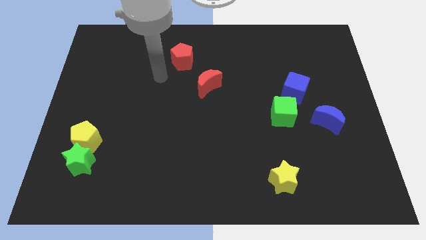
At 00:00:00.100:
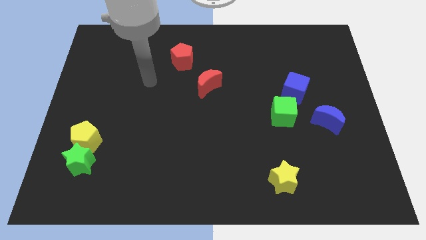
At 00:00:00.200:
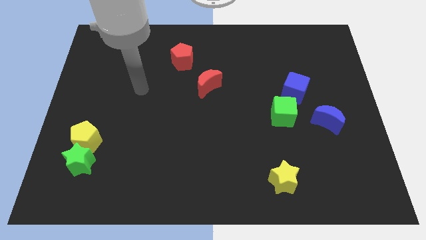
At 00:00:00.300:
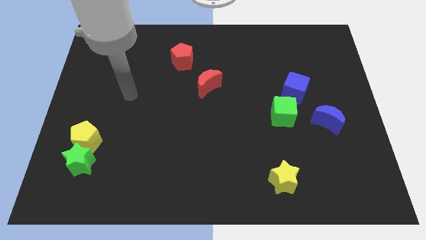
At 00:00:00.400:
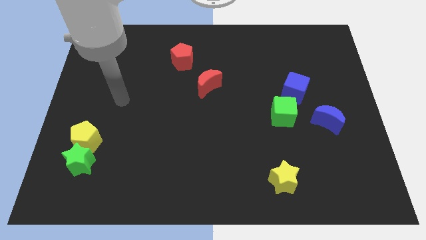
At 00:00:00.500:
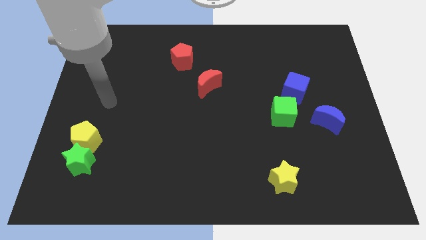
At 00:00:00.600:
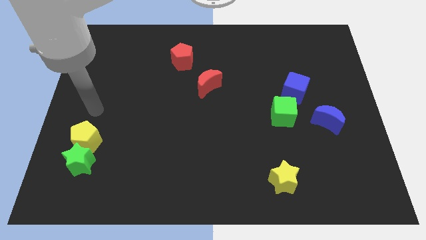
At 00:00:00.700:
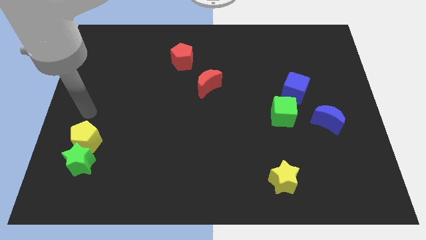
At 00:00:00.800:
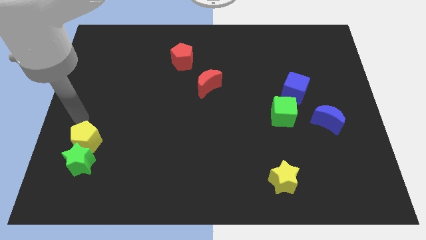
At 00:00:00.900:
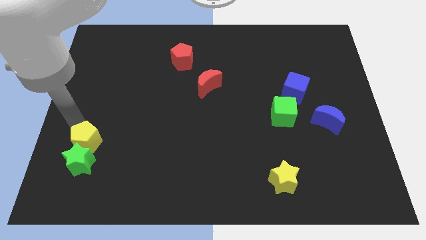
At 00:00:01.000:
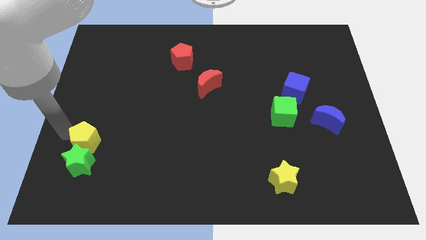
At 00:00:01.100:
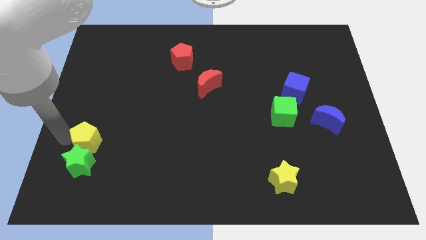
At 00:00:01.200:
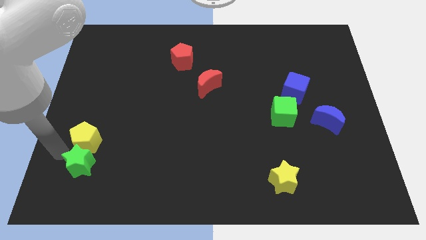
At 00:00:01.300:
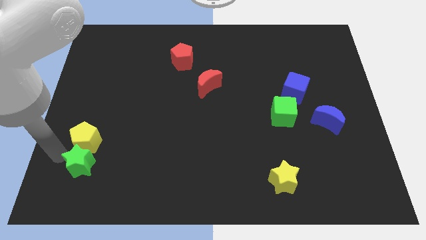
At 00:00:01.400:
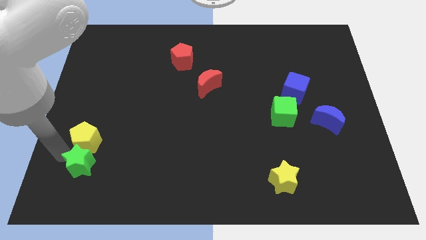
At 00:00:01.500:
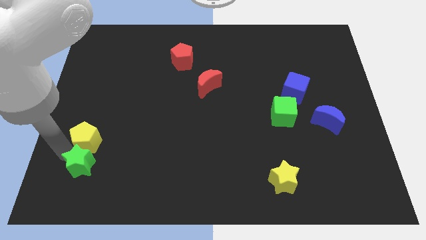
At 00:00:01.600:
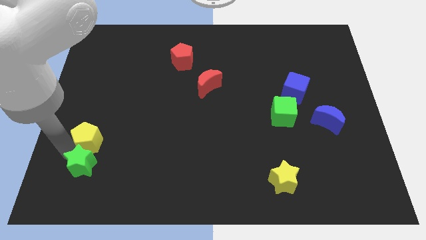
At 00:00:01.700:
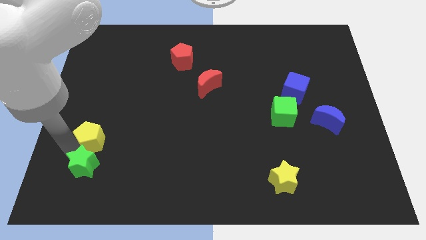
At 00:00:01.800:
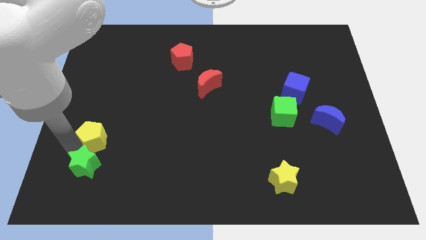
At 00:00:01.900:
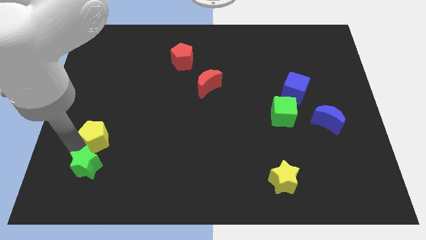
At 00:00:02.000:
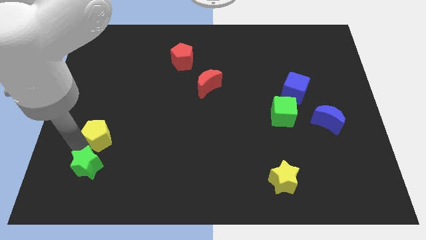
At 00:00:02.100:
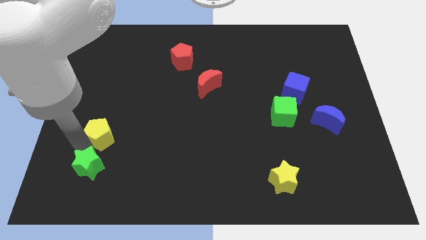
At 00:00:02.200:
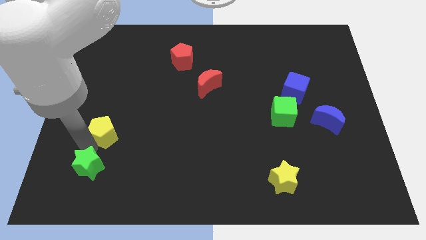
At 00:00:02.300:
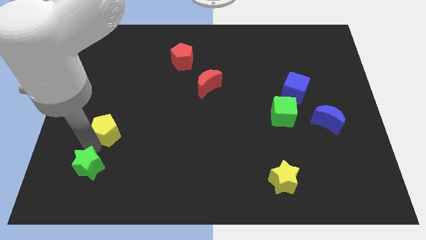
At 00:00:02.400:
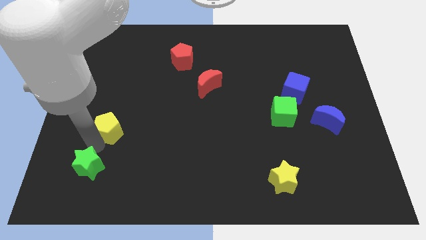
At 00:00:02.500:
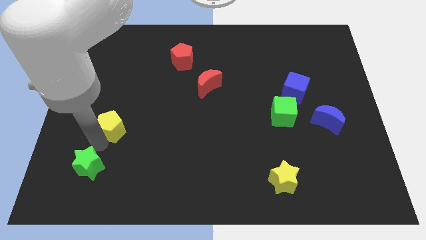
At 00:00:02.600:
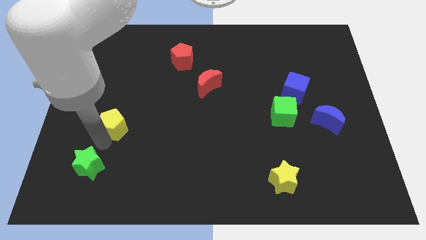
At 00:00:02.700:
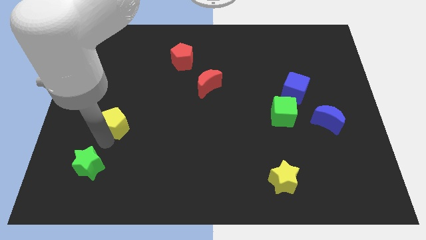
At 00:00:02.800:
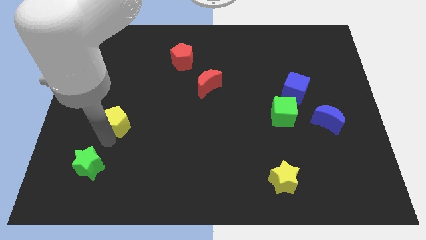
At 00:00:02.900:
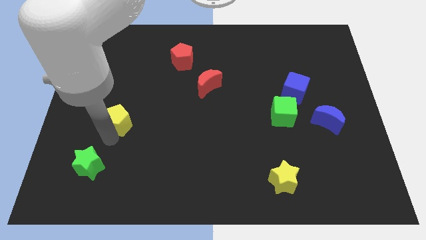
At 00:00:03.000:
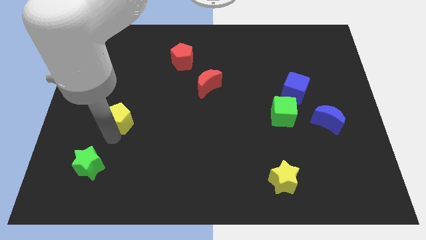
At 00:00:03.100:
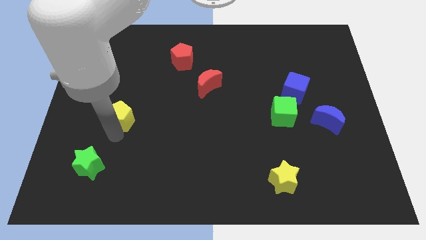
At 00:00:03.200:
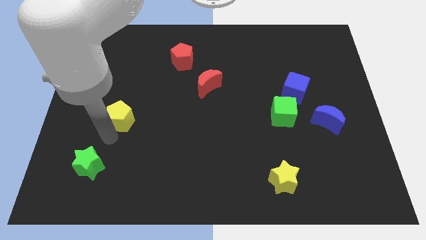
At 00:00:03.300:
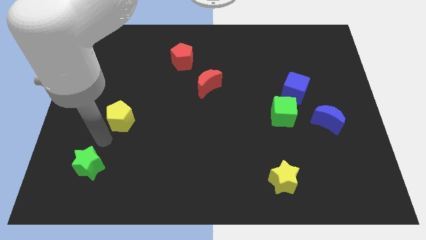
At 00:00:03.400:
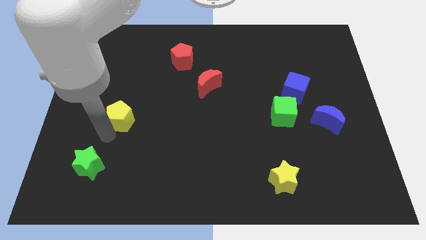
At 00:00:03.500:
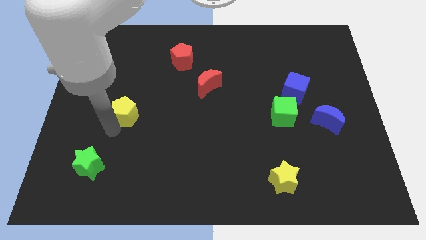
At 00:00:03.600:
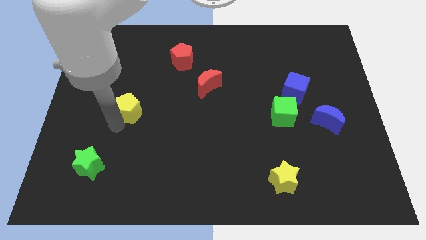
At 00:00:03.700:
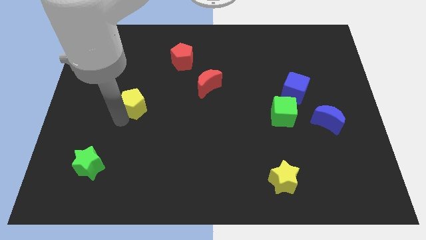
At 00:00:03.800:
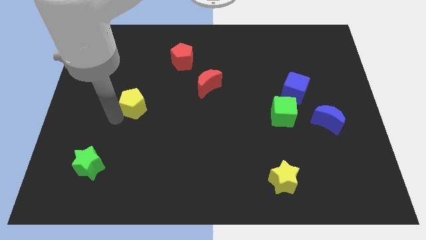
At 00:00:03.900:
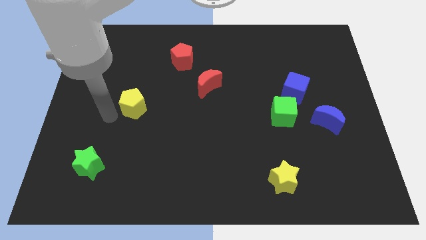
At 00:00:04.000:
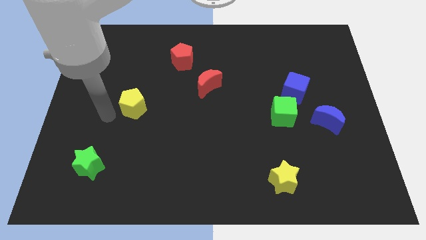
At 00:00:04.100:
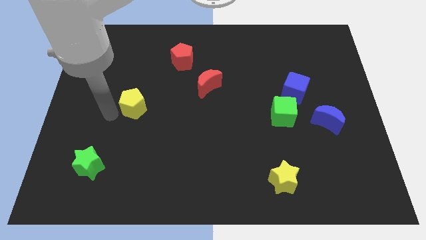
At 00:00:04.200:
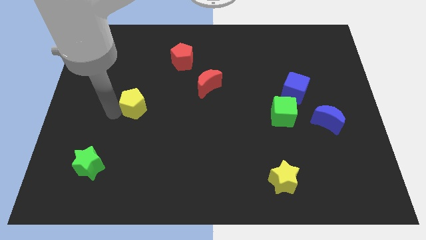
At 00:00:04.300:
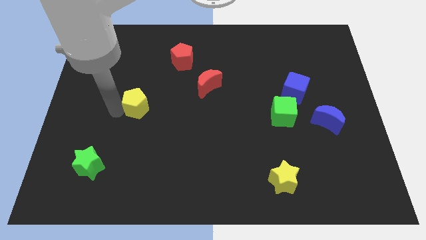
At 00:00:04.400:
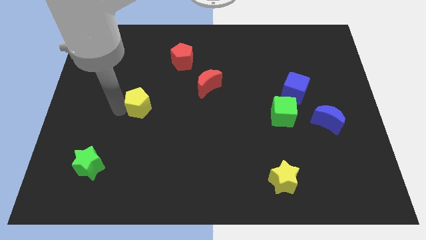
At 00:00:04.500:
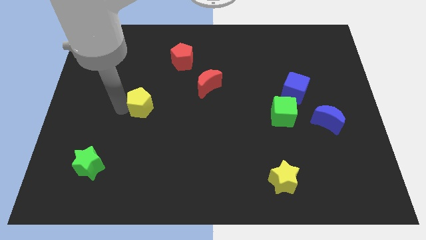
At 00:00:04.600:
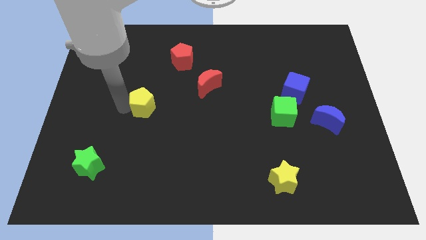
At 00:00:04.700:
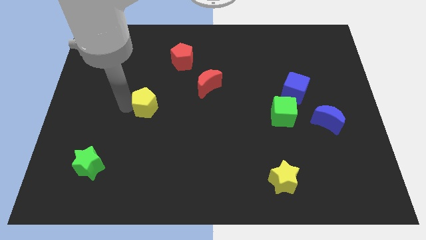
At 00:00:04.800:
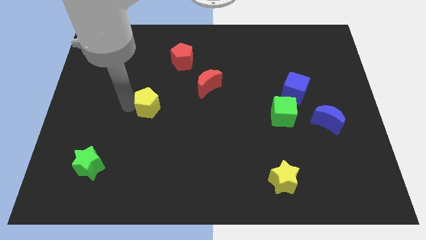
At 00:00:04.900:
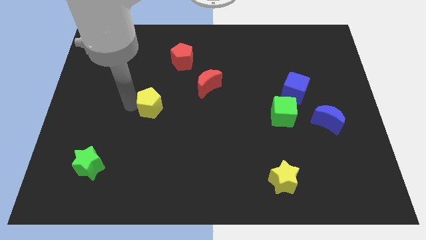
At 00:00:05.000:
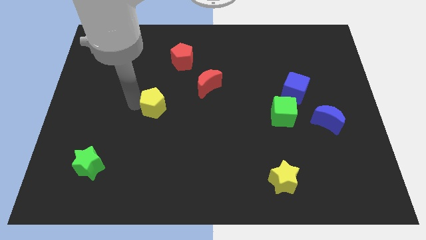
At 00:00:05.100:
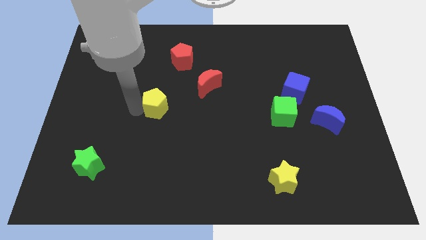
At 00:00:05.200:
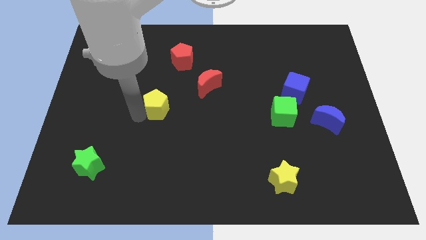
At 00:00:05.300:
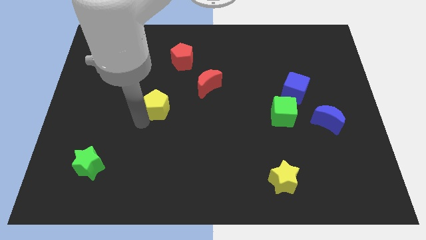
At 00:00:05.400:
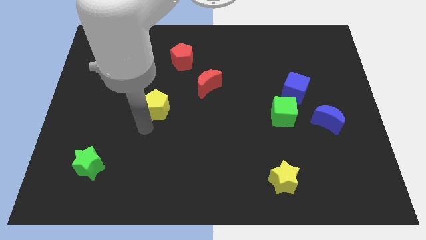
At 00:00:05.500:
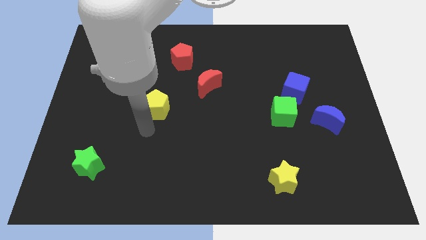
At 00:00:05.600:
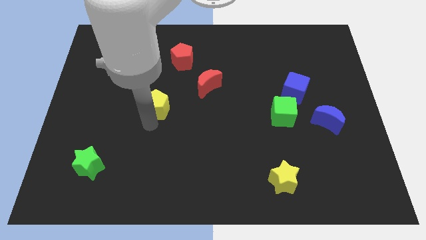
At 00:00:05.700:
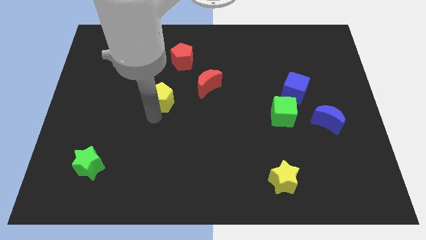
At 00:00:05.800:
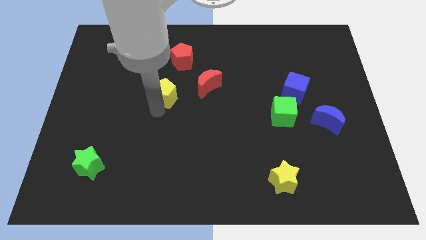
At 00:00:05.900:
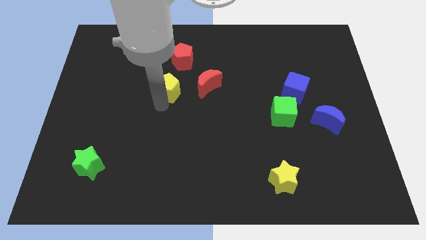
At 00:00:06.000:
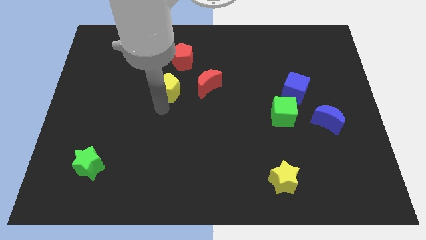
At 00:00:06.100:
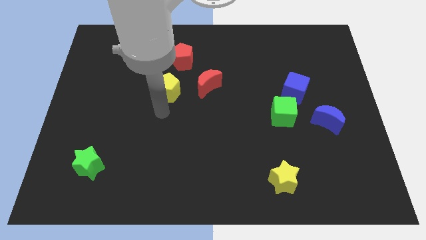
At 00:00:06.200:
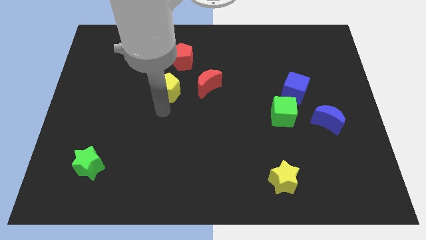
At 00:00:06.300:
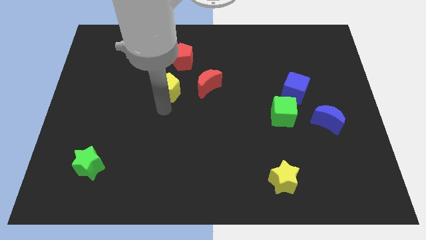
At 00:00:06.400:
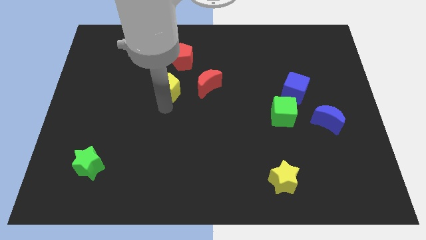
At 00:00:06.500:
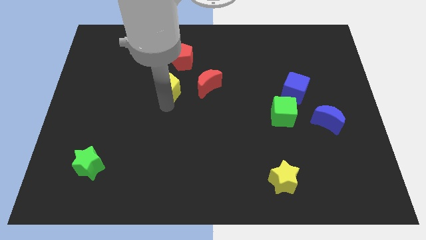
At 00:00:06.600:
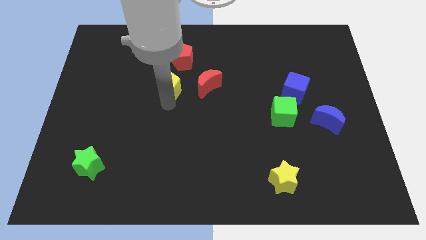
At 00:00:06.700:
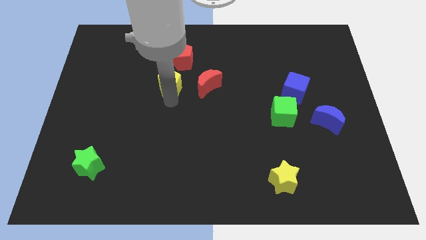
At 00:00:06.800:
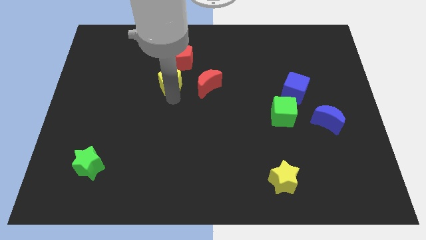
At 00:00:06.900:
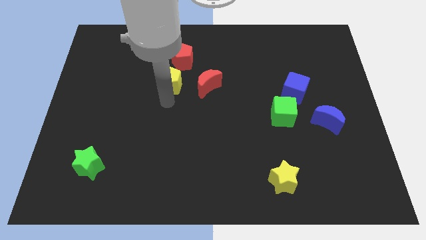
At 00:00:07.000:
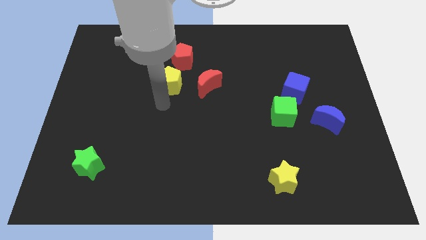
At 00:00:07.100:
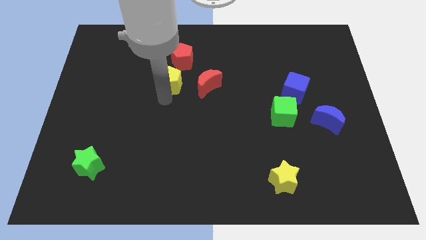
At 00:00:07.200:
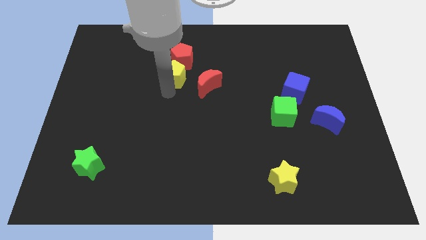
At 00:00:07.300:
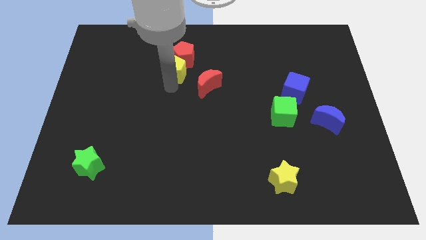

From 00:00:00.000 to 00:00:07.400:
move the yellow pentagon to the red pentagon
